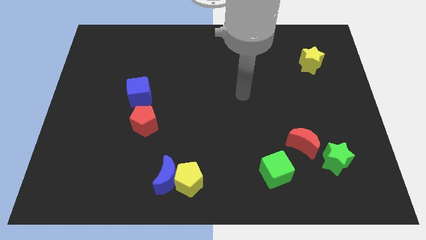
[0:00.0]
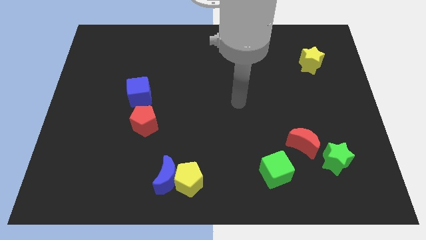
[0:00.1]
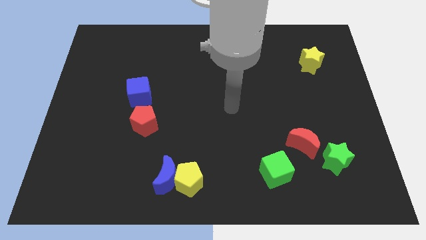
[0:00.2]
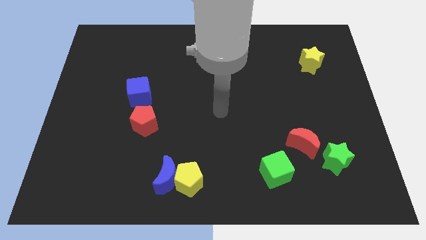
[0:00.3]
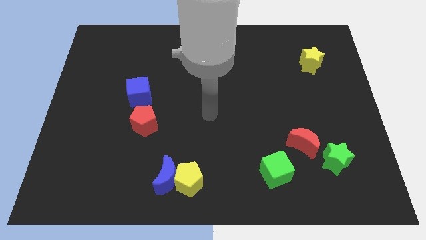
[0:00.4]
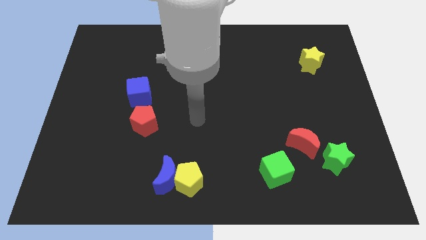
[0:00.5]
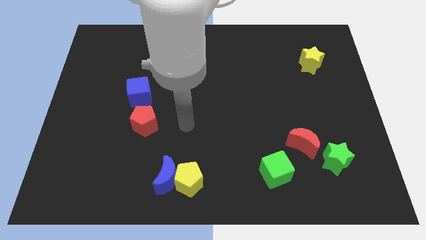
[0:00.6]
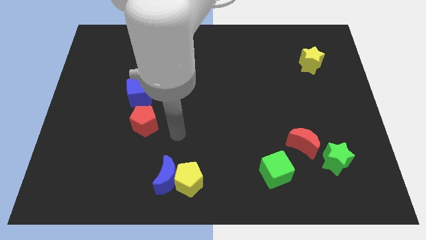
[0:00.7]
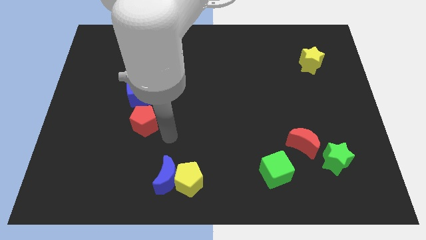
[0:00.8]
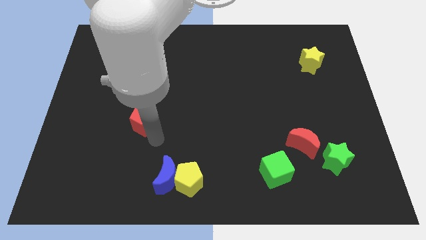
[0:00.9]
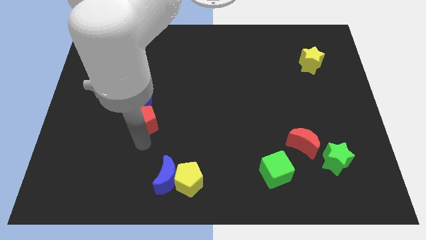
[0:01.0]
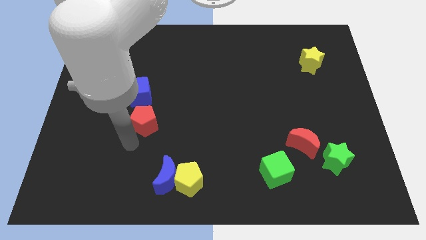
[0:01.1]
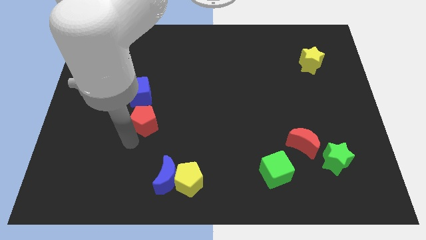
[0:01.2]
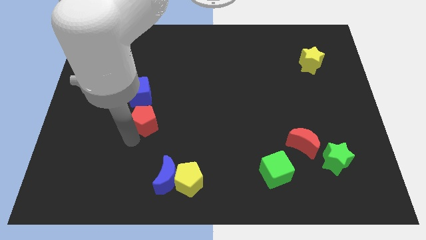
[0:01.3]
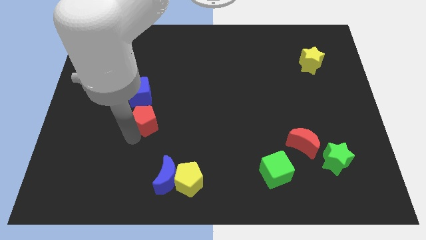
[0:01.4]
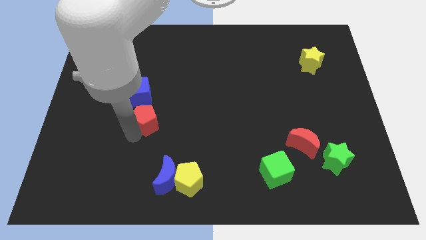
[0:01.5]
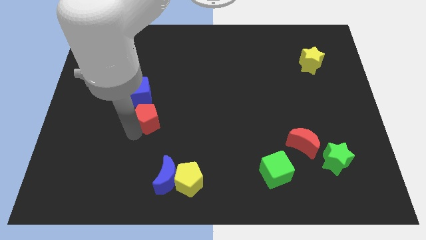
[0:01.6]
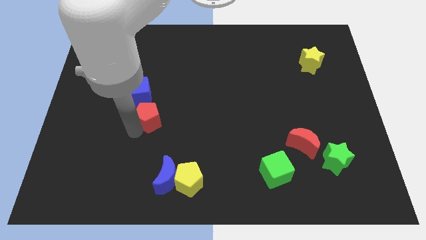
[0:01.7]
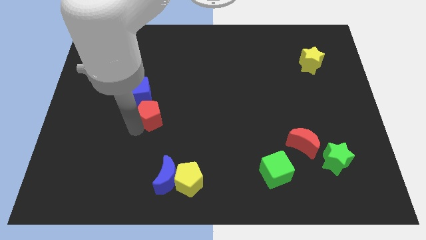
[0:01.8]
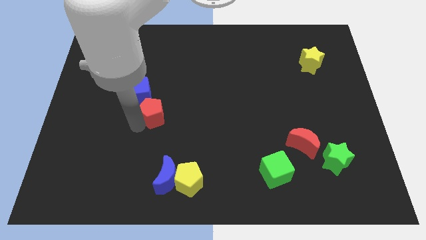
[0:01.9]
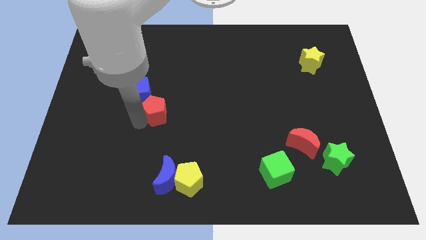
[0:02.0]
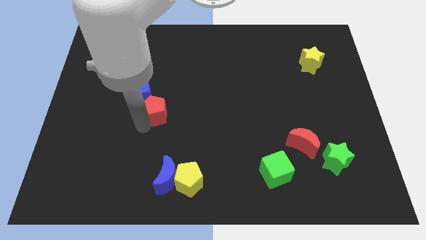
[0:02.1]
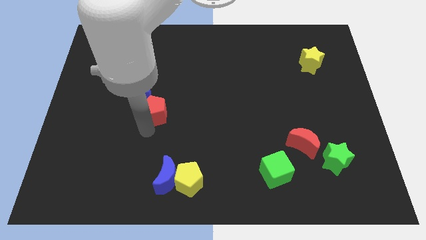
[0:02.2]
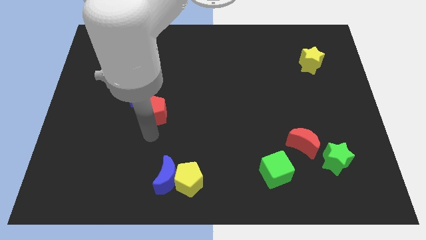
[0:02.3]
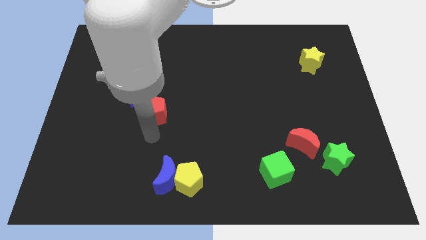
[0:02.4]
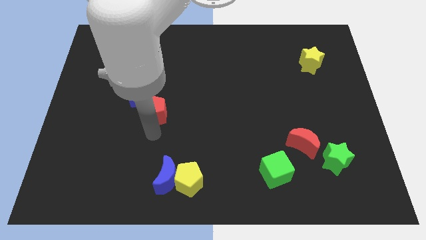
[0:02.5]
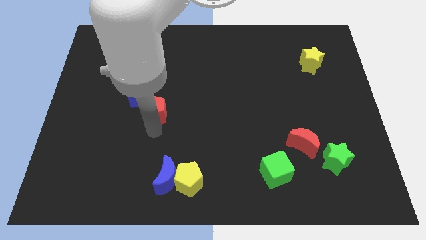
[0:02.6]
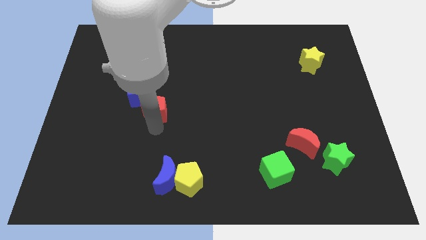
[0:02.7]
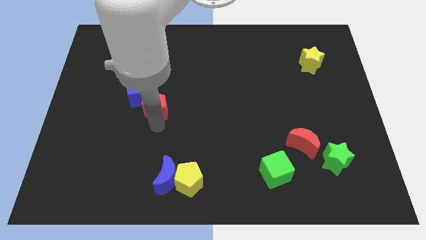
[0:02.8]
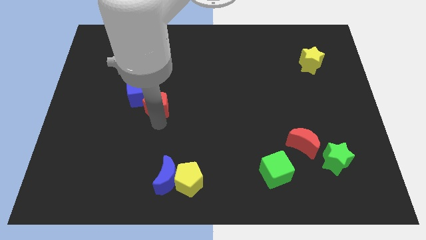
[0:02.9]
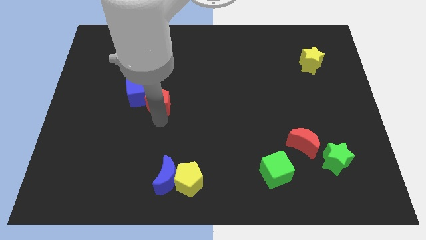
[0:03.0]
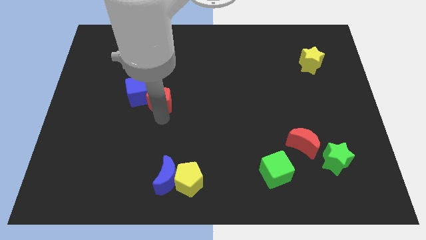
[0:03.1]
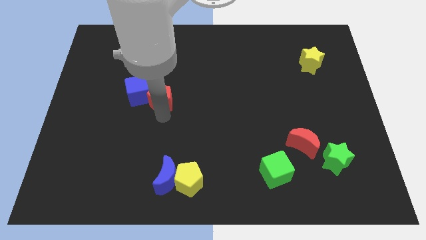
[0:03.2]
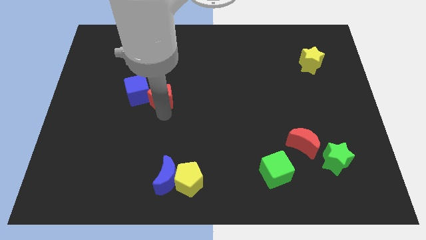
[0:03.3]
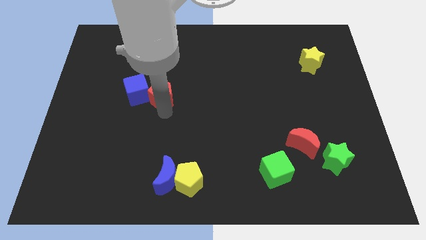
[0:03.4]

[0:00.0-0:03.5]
slightly slide the red pentagon upwards

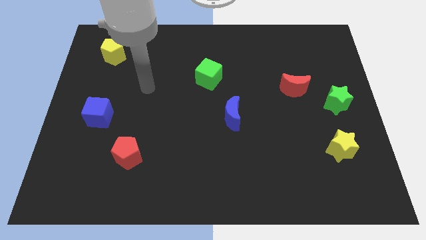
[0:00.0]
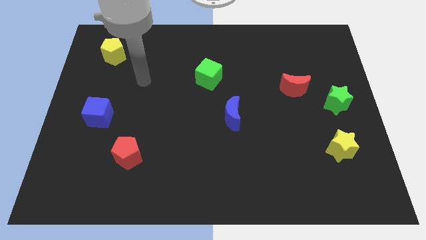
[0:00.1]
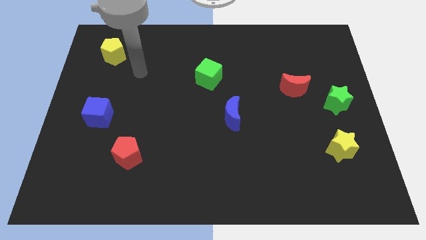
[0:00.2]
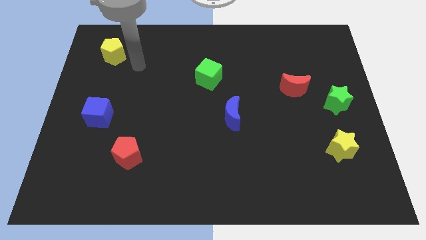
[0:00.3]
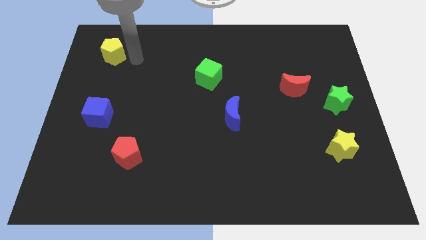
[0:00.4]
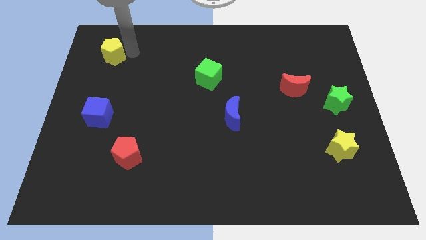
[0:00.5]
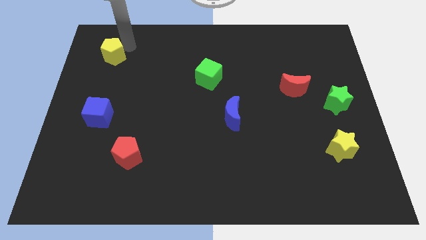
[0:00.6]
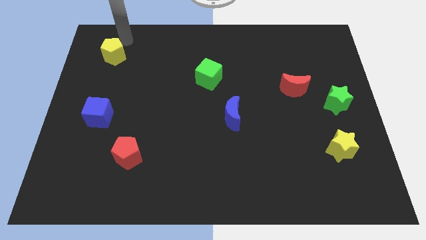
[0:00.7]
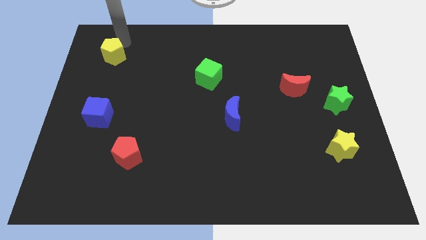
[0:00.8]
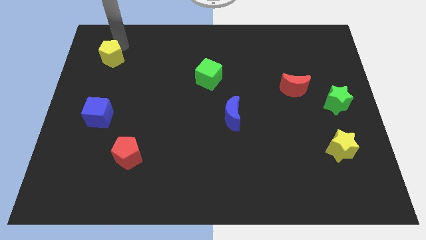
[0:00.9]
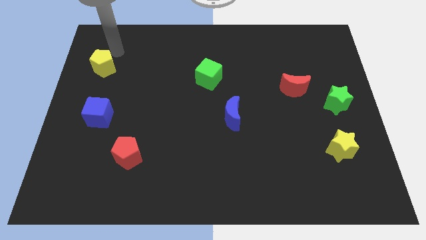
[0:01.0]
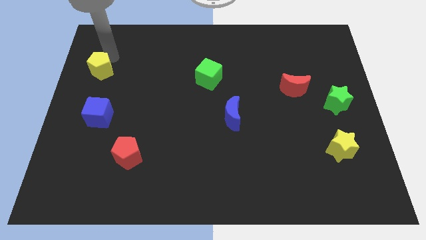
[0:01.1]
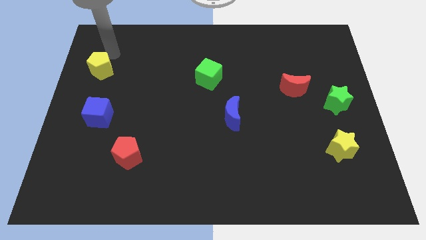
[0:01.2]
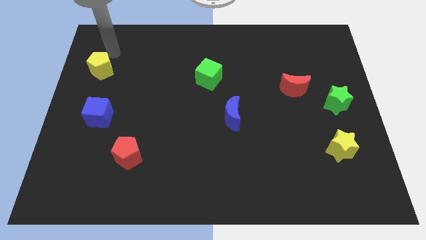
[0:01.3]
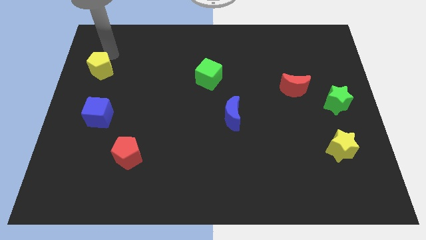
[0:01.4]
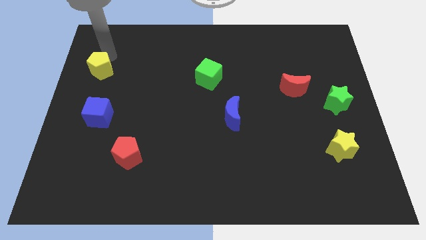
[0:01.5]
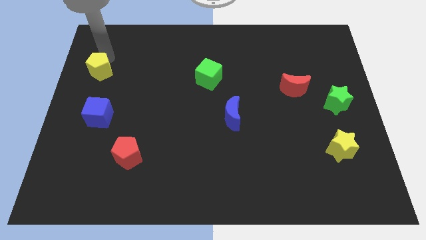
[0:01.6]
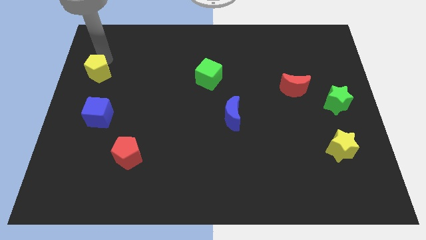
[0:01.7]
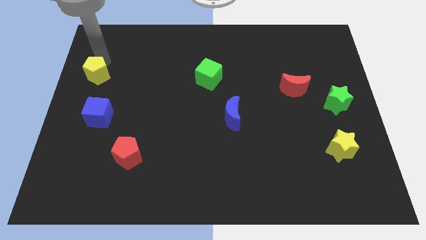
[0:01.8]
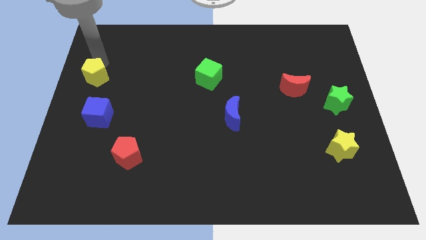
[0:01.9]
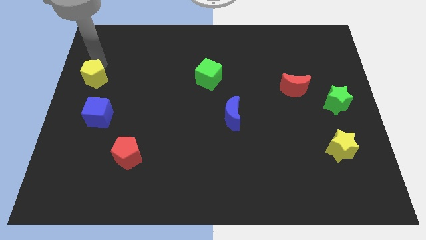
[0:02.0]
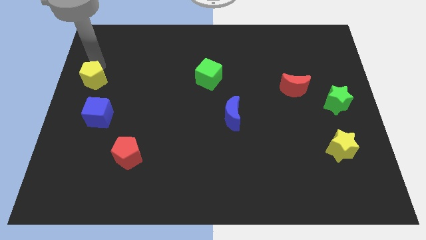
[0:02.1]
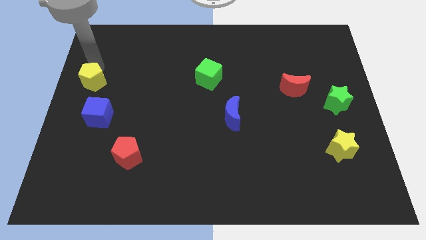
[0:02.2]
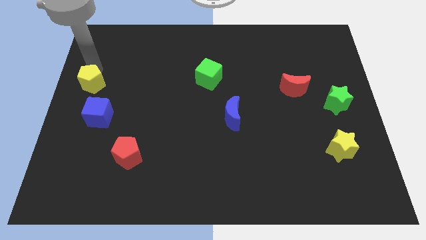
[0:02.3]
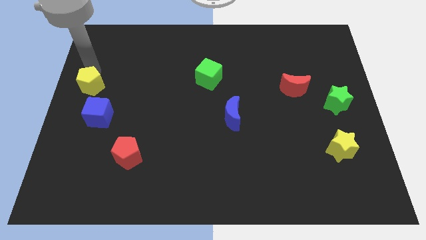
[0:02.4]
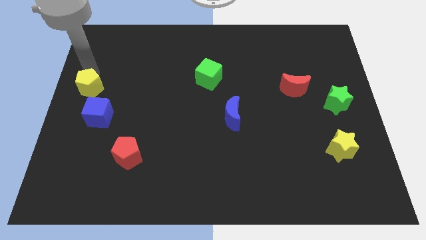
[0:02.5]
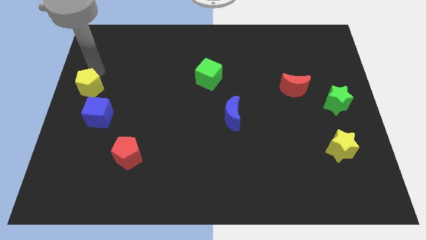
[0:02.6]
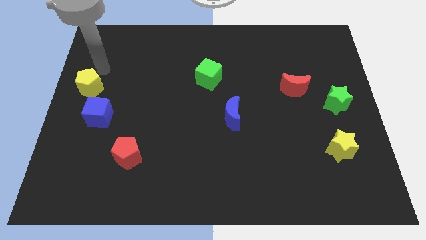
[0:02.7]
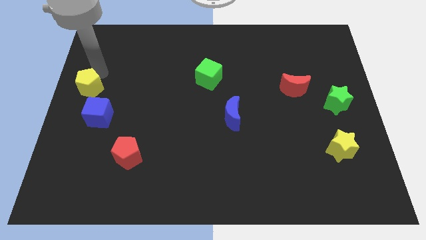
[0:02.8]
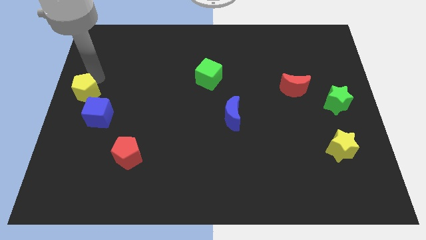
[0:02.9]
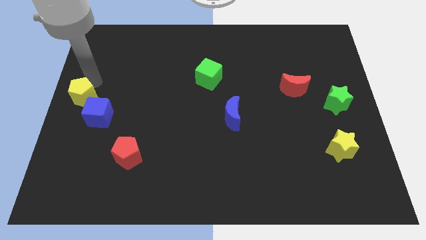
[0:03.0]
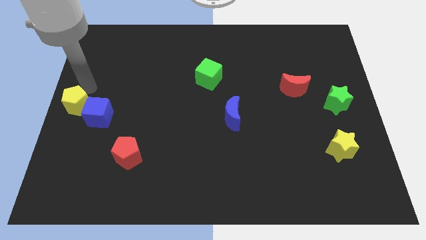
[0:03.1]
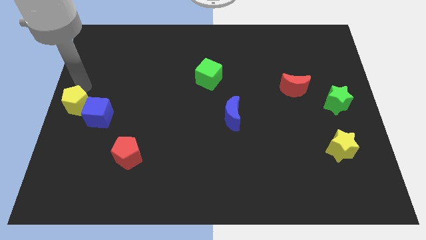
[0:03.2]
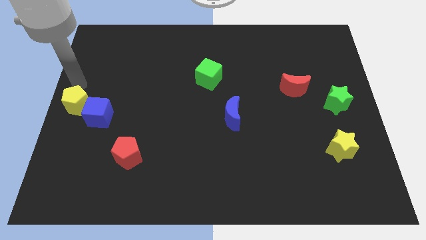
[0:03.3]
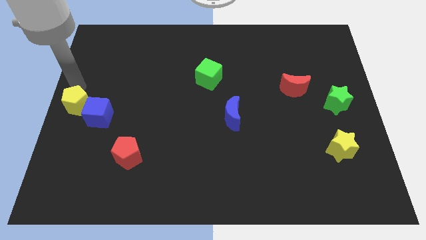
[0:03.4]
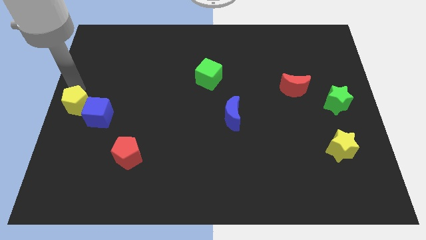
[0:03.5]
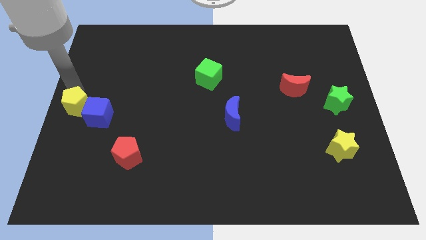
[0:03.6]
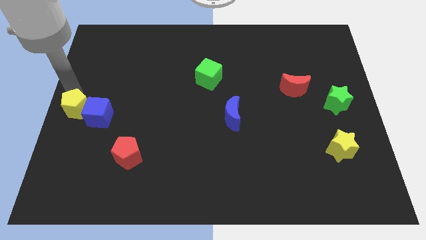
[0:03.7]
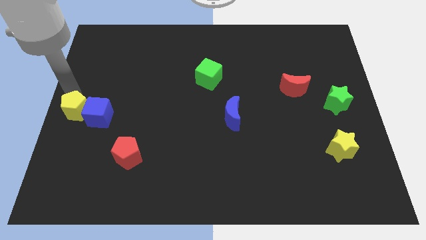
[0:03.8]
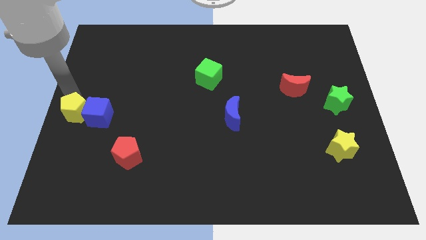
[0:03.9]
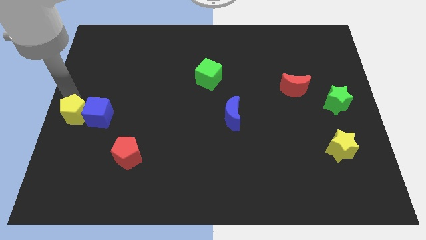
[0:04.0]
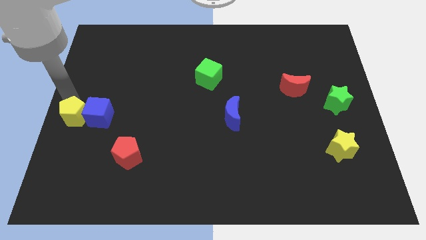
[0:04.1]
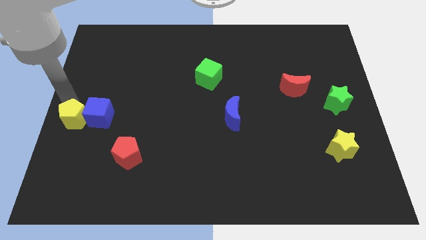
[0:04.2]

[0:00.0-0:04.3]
push the yellow pentagon downwards

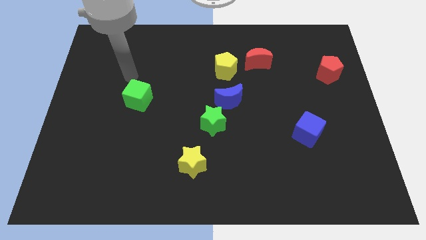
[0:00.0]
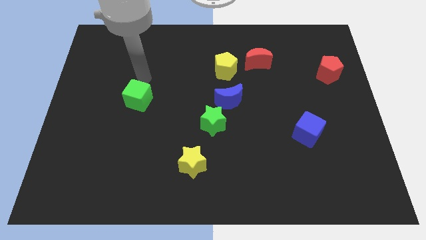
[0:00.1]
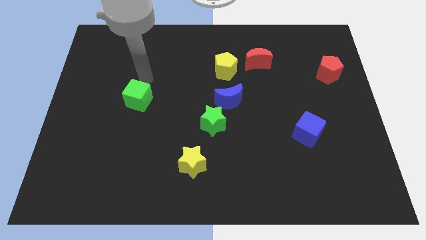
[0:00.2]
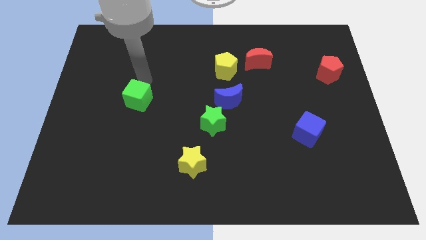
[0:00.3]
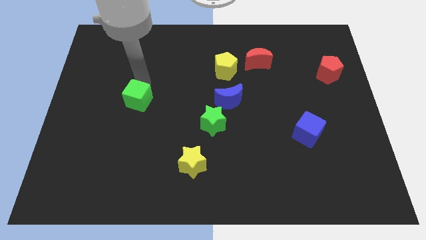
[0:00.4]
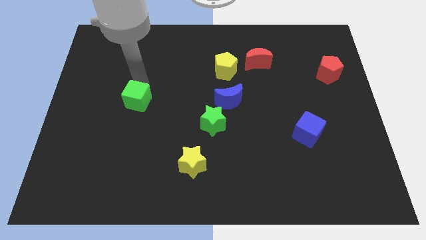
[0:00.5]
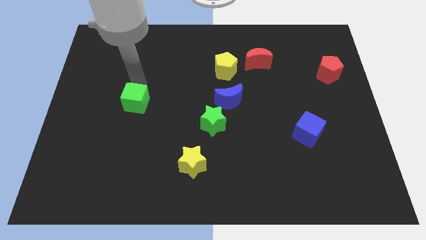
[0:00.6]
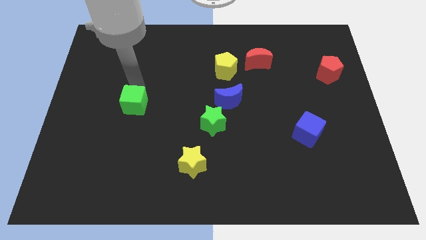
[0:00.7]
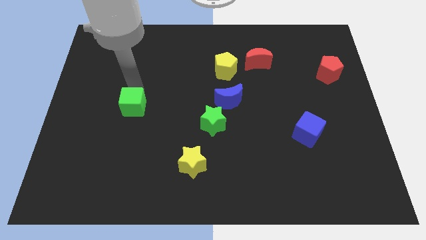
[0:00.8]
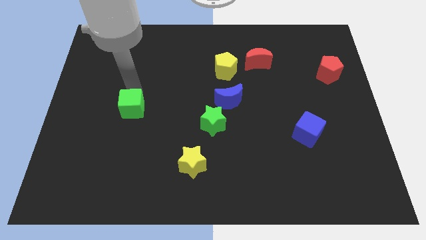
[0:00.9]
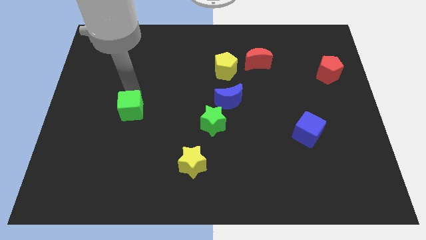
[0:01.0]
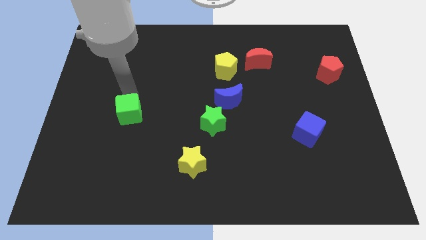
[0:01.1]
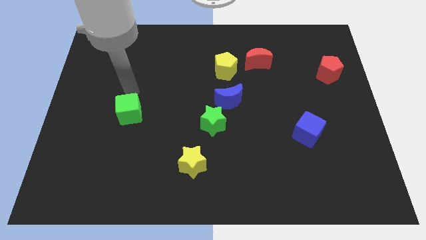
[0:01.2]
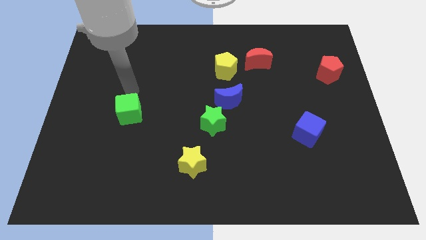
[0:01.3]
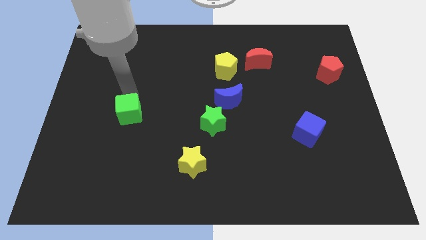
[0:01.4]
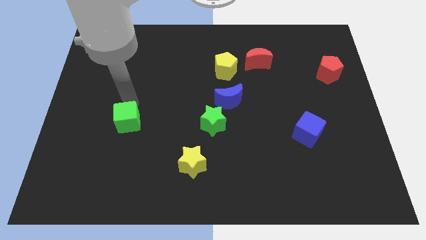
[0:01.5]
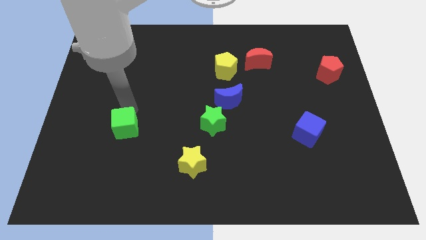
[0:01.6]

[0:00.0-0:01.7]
move the green cube down a little
